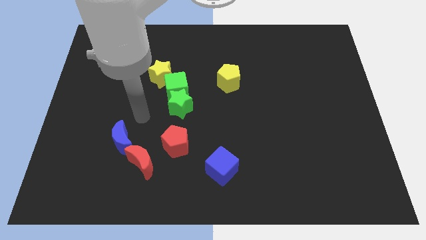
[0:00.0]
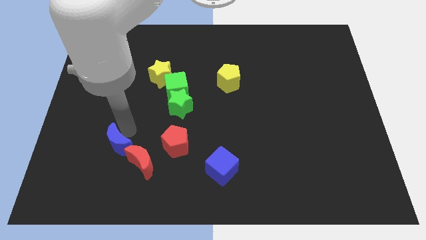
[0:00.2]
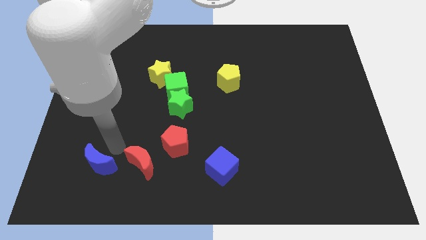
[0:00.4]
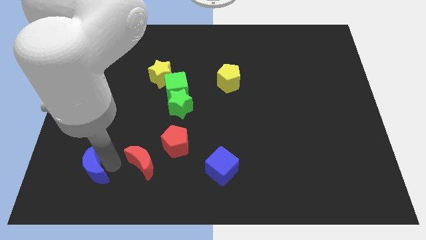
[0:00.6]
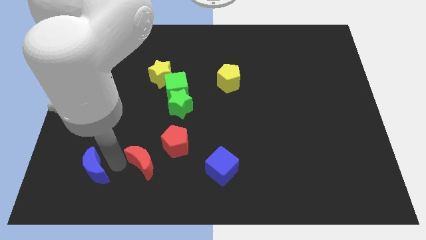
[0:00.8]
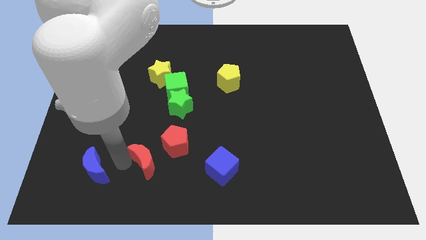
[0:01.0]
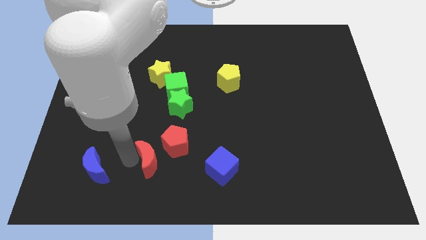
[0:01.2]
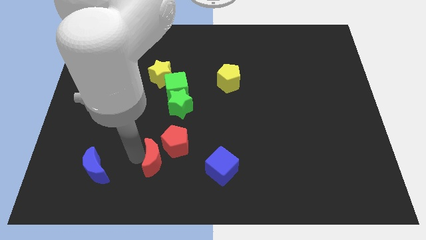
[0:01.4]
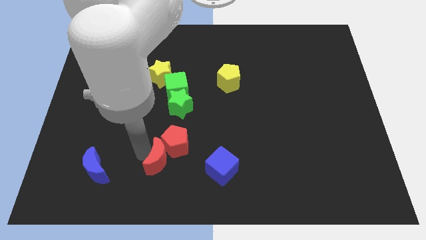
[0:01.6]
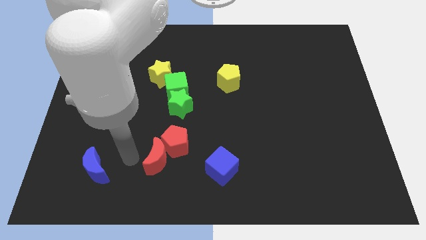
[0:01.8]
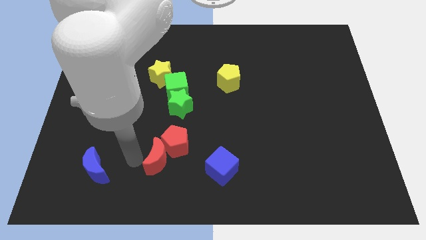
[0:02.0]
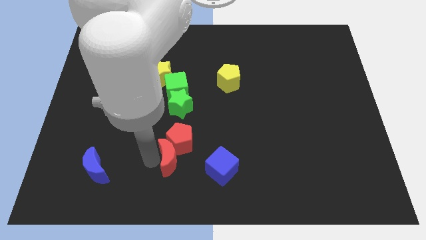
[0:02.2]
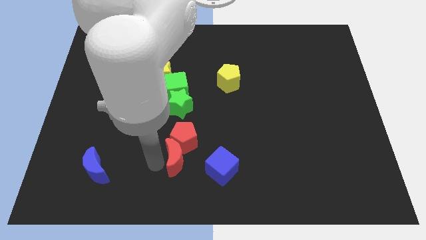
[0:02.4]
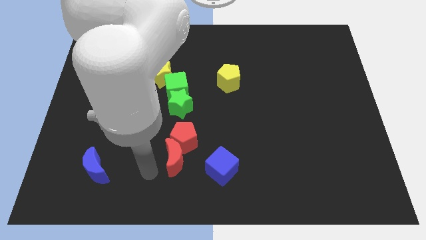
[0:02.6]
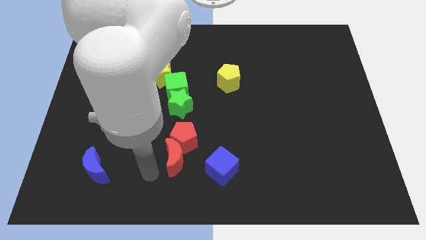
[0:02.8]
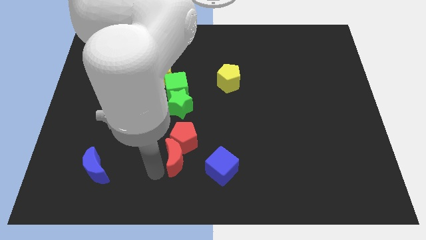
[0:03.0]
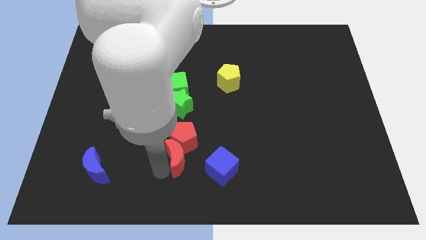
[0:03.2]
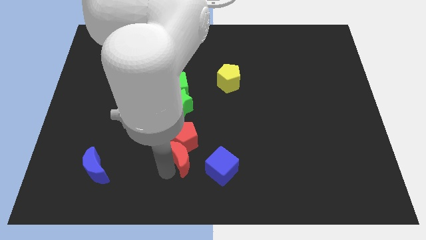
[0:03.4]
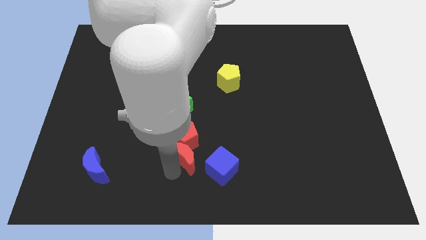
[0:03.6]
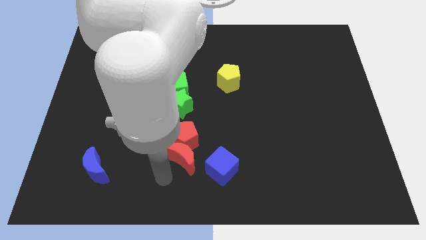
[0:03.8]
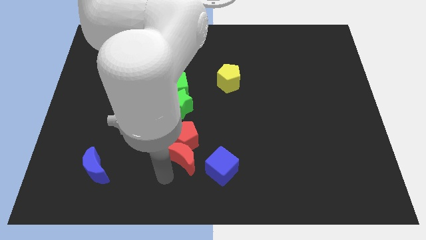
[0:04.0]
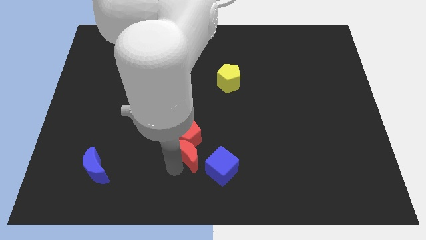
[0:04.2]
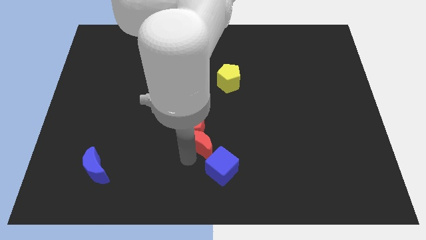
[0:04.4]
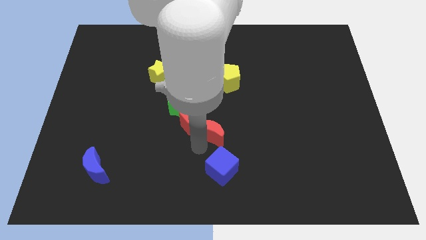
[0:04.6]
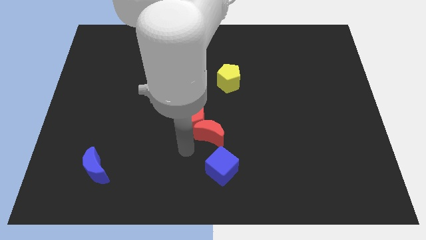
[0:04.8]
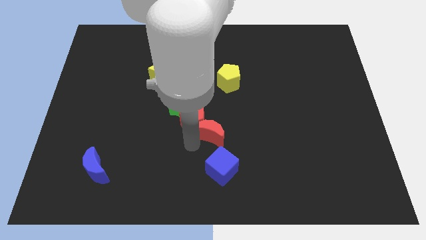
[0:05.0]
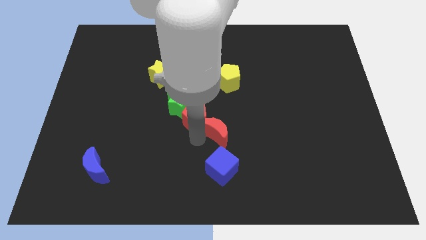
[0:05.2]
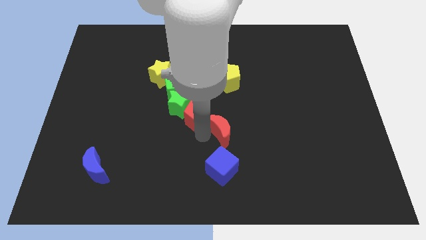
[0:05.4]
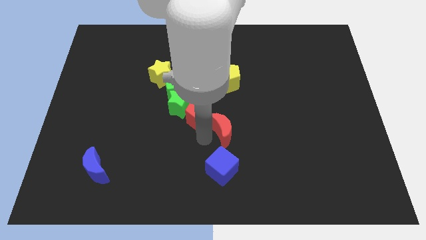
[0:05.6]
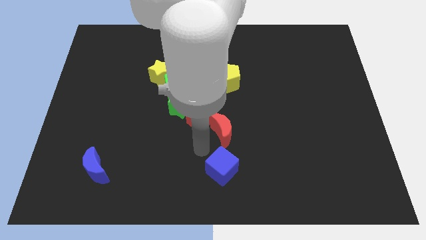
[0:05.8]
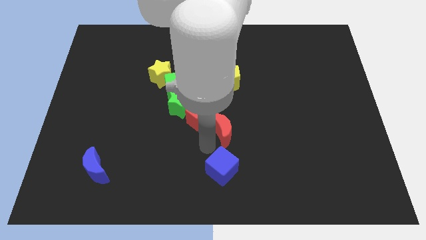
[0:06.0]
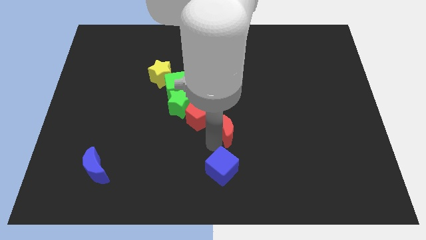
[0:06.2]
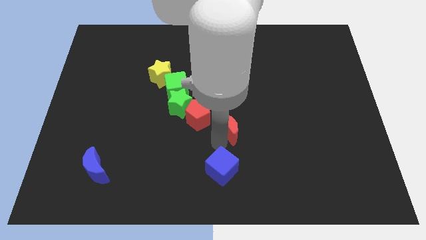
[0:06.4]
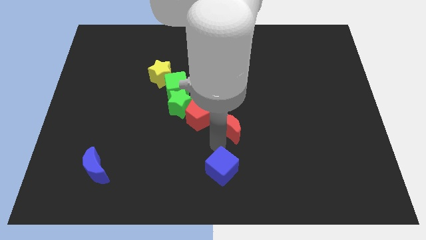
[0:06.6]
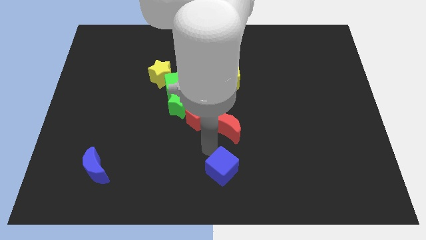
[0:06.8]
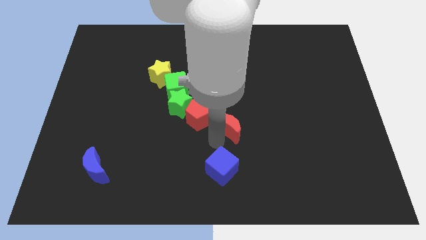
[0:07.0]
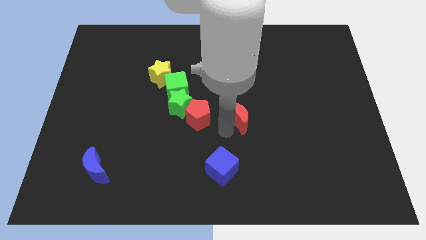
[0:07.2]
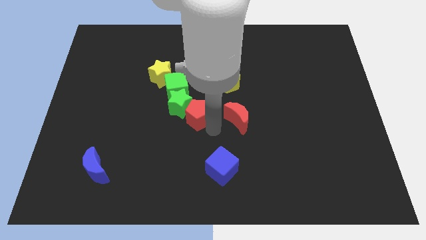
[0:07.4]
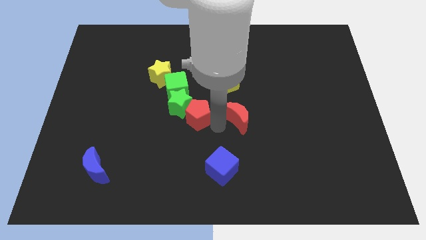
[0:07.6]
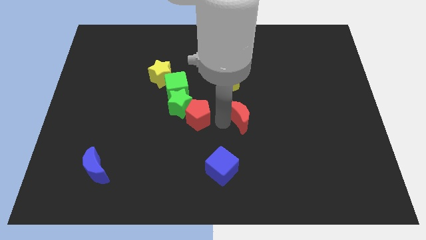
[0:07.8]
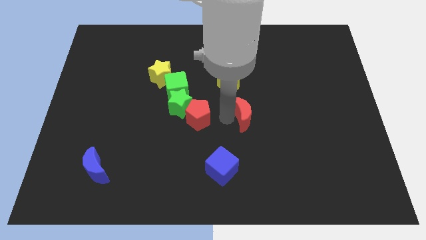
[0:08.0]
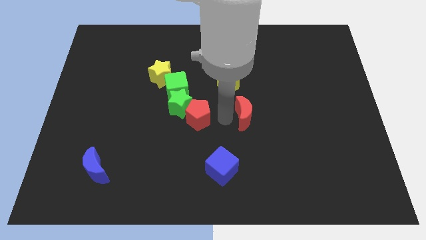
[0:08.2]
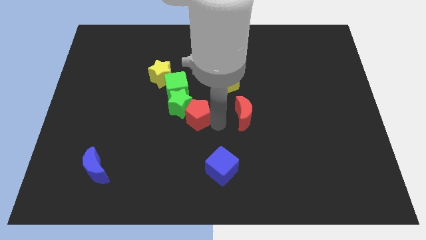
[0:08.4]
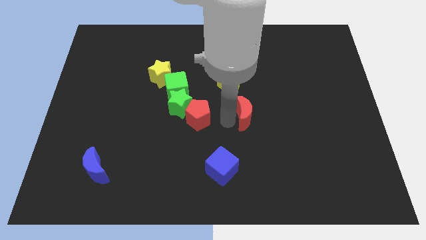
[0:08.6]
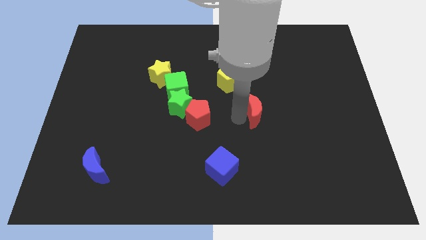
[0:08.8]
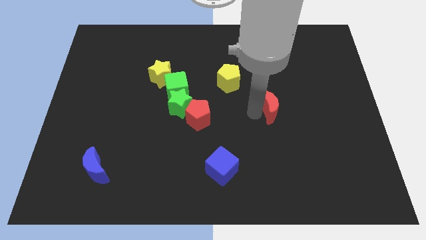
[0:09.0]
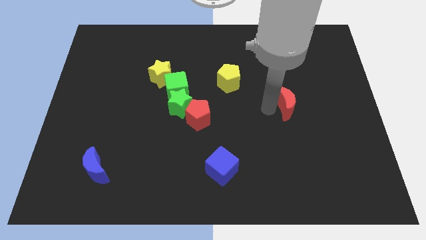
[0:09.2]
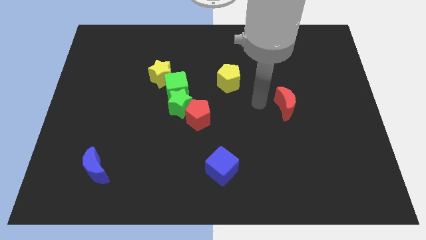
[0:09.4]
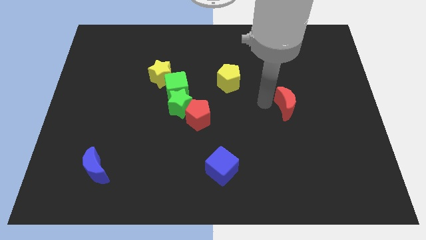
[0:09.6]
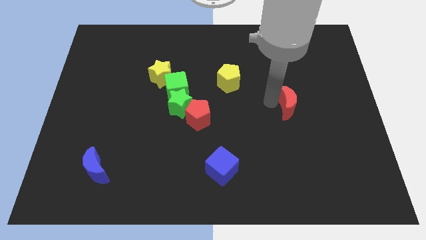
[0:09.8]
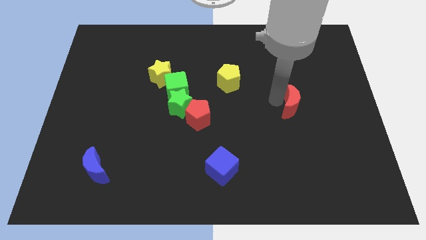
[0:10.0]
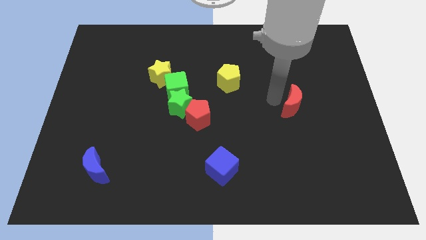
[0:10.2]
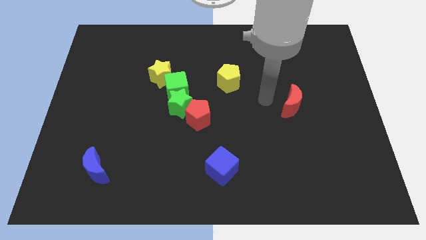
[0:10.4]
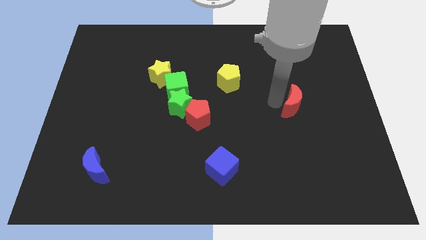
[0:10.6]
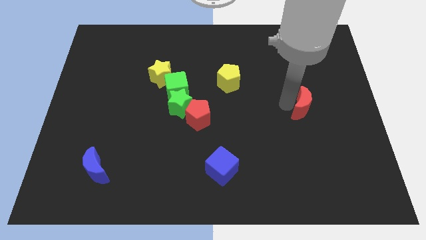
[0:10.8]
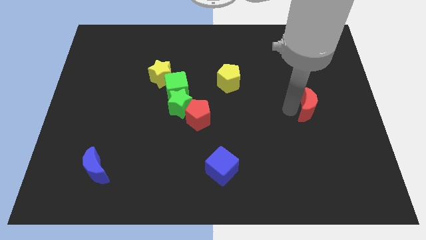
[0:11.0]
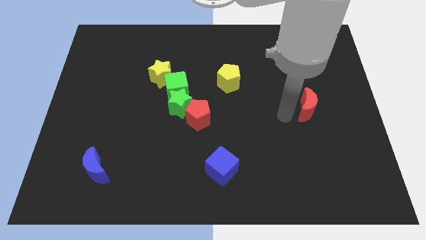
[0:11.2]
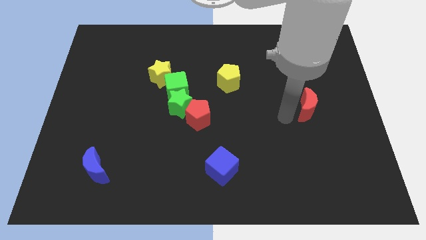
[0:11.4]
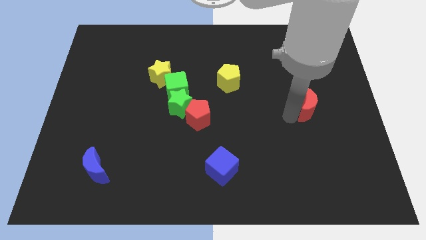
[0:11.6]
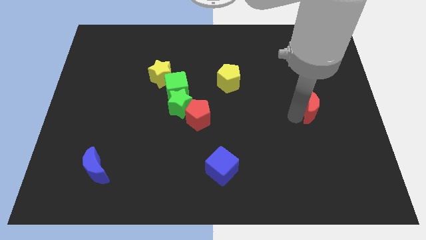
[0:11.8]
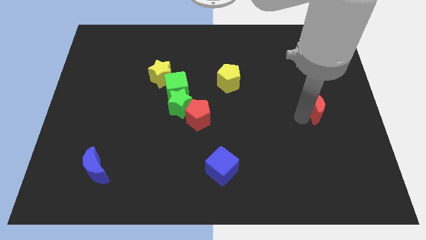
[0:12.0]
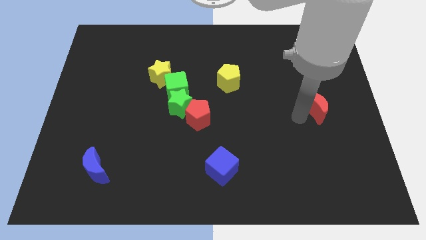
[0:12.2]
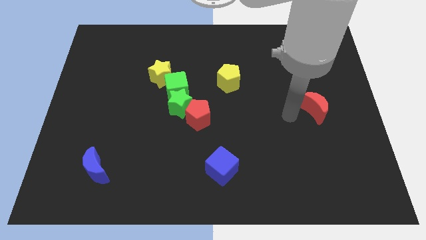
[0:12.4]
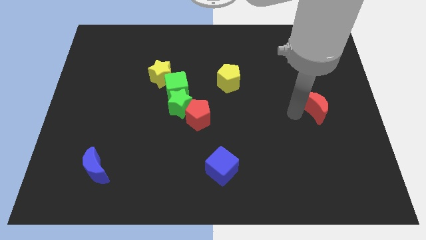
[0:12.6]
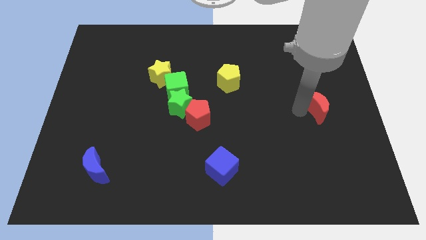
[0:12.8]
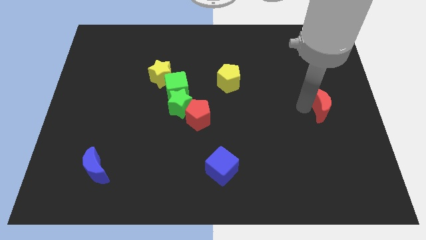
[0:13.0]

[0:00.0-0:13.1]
move the red moon to the right side of the board

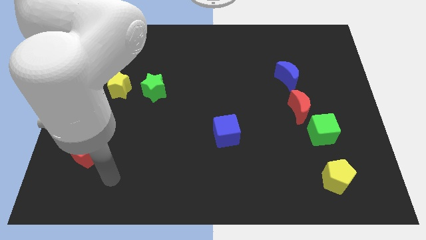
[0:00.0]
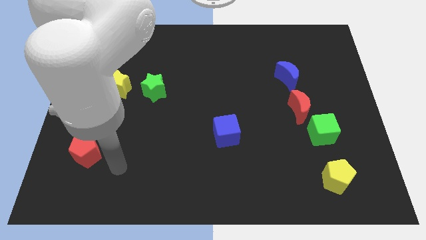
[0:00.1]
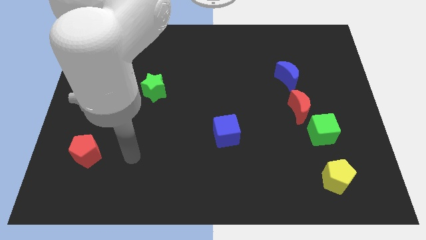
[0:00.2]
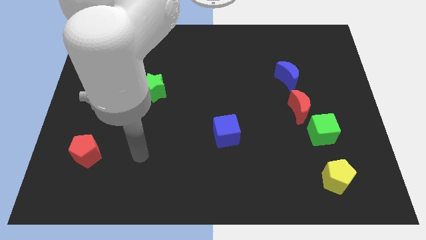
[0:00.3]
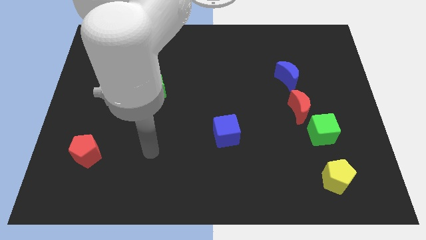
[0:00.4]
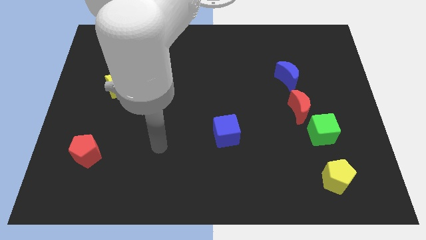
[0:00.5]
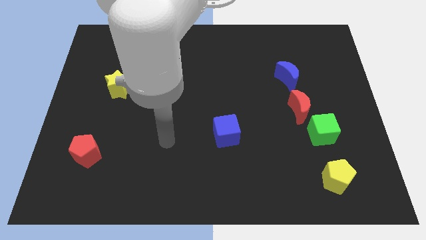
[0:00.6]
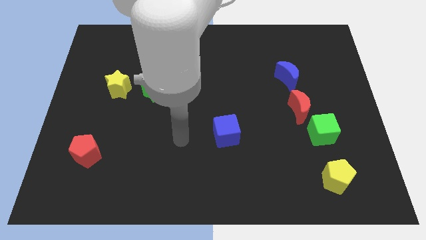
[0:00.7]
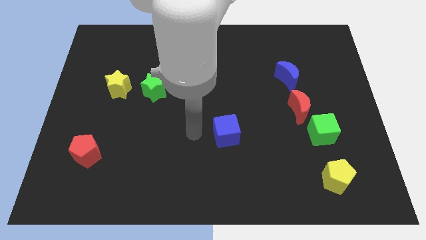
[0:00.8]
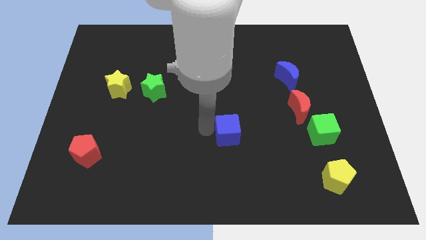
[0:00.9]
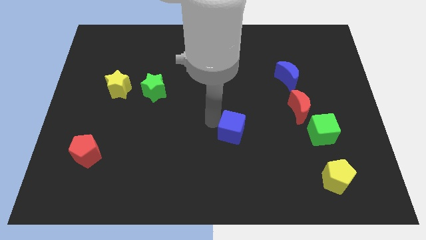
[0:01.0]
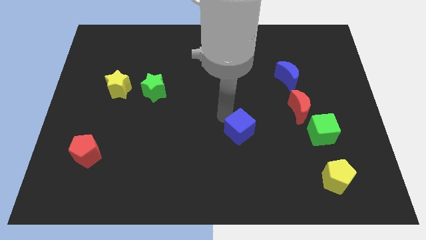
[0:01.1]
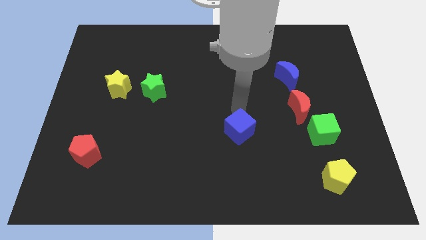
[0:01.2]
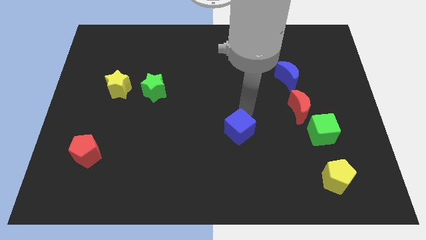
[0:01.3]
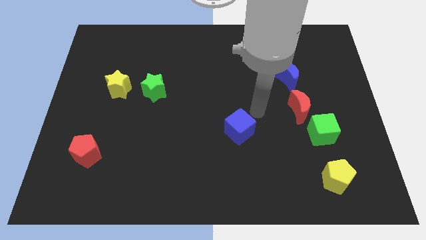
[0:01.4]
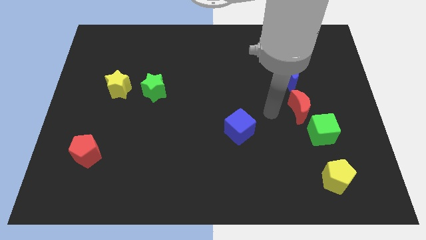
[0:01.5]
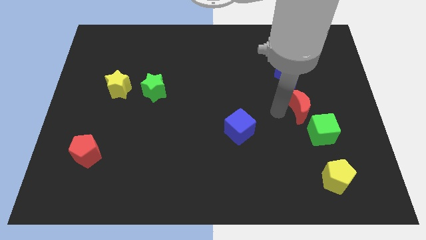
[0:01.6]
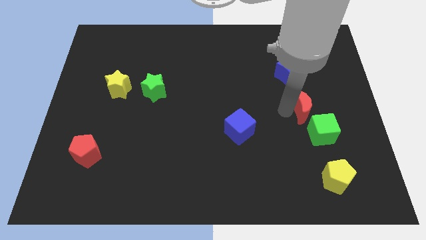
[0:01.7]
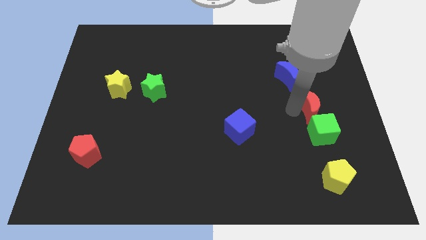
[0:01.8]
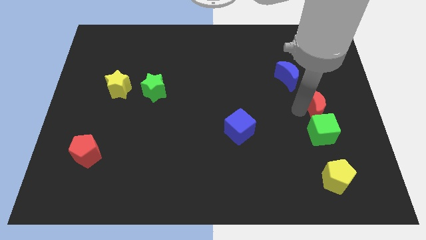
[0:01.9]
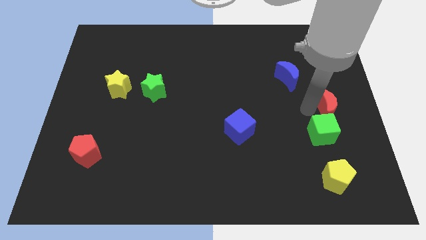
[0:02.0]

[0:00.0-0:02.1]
push the red moon to the right side of the board
